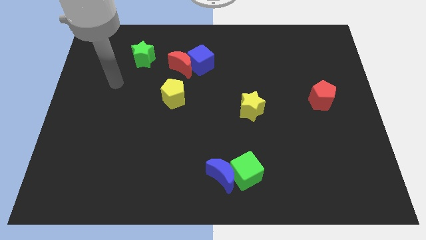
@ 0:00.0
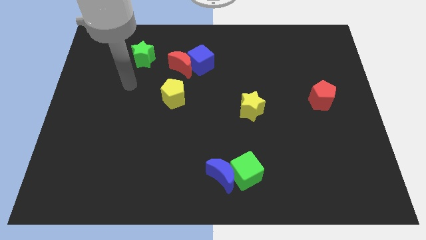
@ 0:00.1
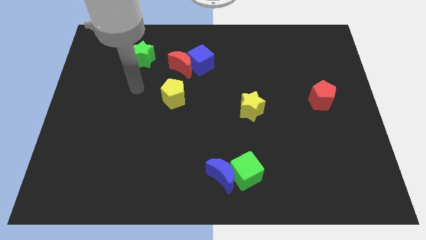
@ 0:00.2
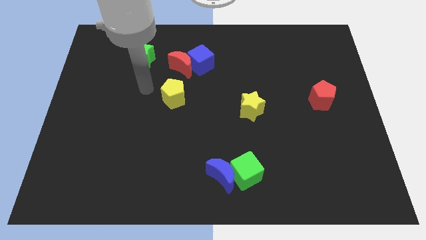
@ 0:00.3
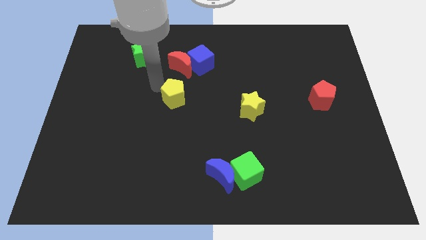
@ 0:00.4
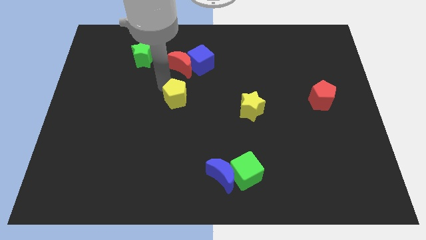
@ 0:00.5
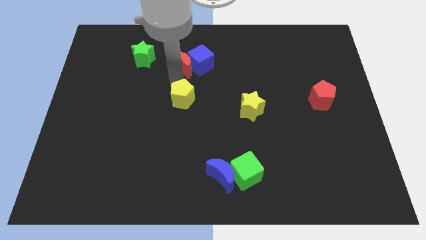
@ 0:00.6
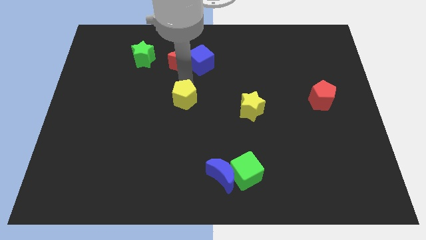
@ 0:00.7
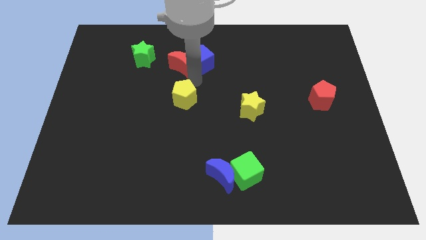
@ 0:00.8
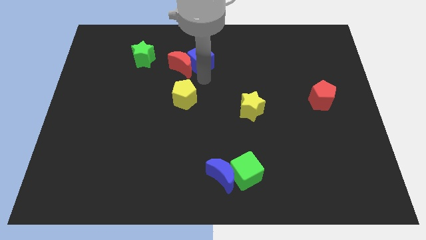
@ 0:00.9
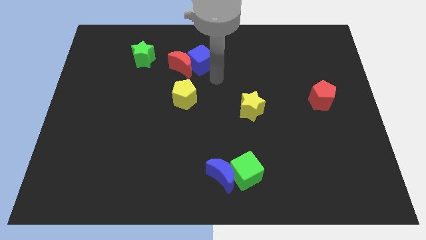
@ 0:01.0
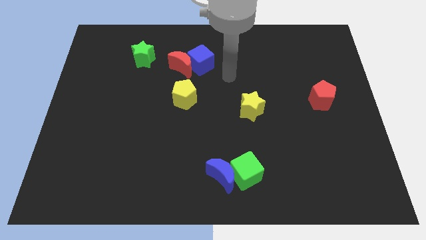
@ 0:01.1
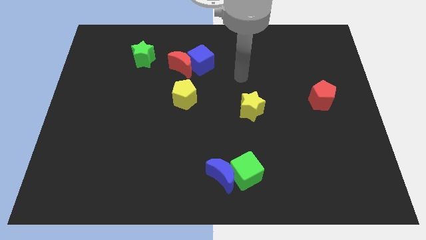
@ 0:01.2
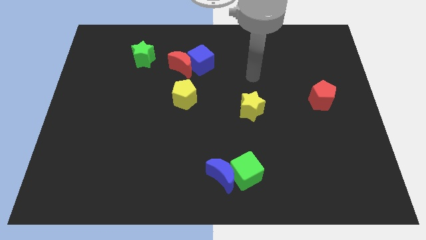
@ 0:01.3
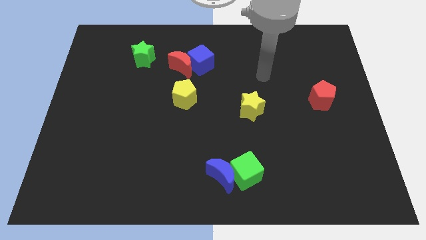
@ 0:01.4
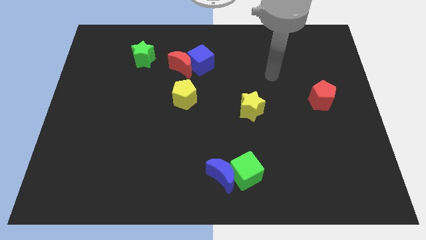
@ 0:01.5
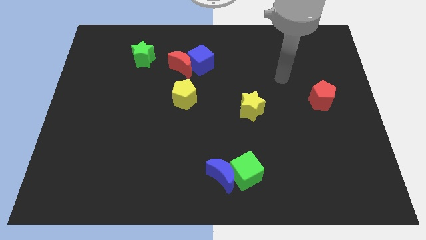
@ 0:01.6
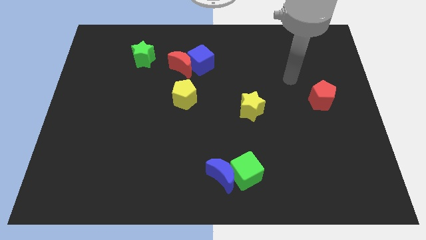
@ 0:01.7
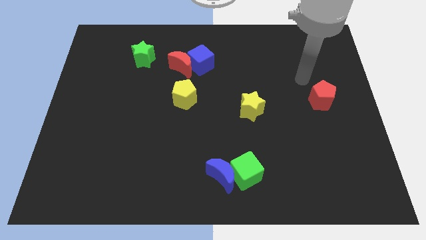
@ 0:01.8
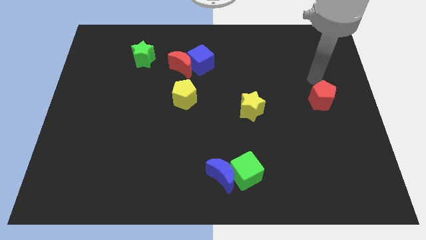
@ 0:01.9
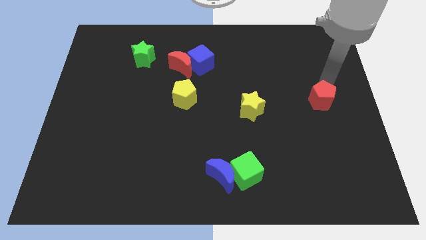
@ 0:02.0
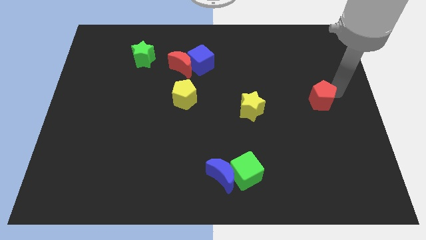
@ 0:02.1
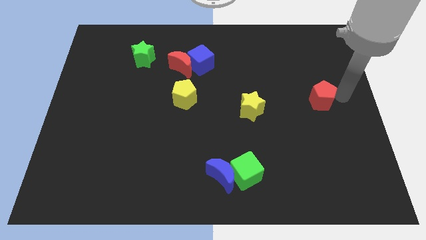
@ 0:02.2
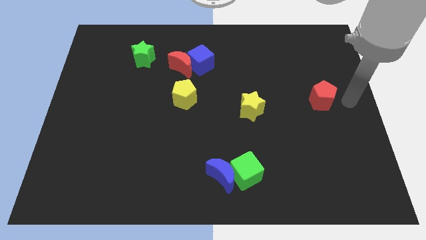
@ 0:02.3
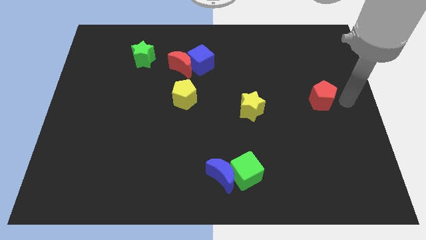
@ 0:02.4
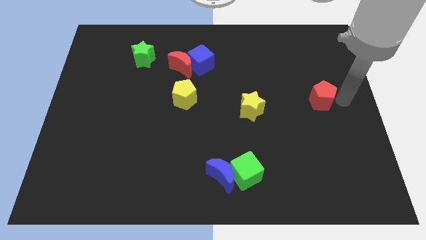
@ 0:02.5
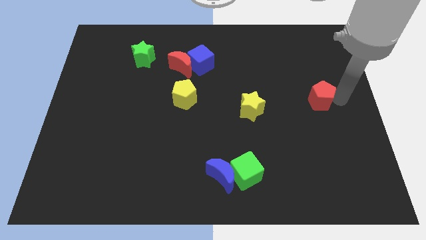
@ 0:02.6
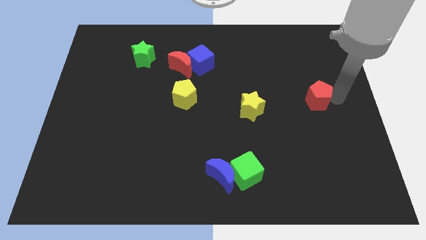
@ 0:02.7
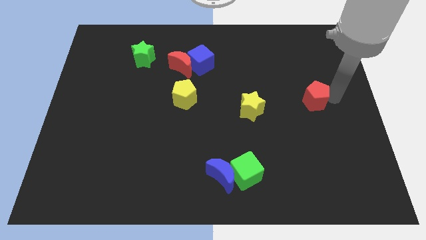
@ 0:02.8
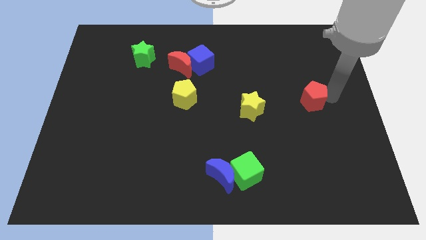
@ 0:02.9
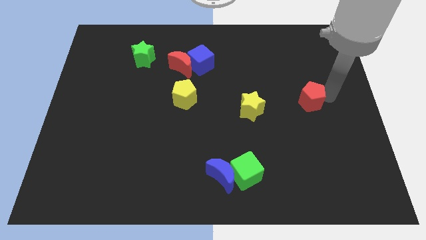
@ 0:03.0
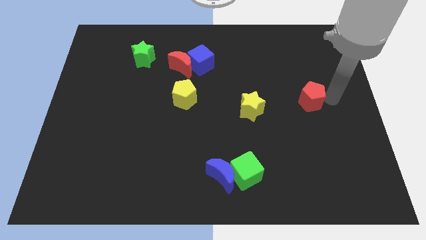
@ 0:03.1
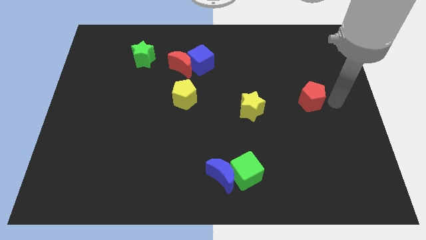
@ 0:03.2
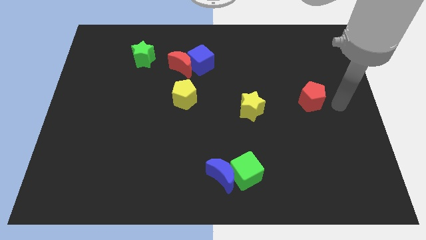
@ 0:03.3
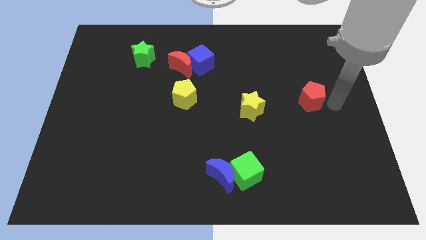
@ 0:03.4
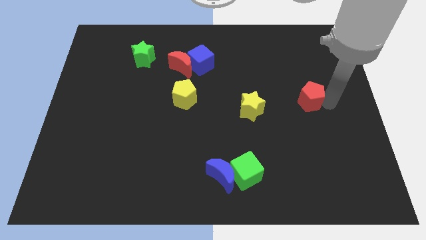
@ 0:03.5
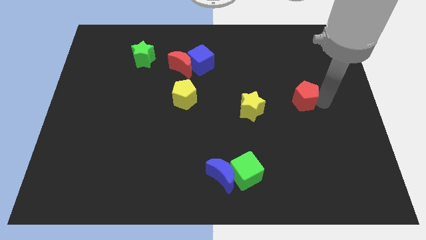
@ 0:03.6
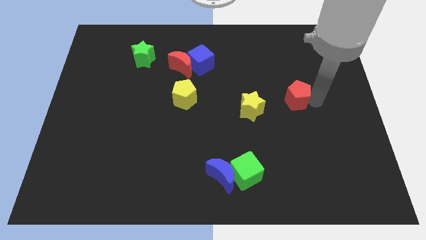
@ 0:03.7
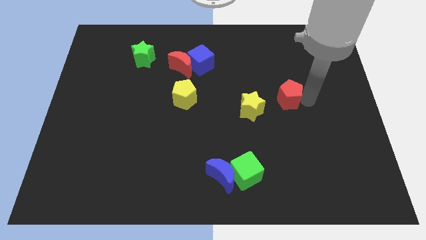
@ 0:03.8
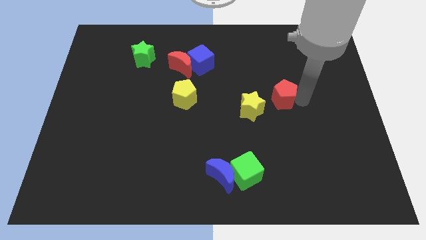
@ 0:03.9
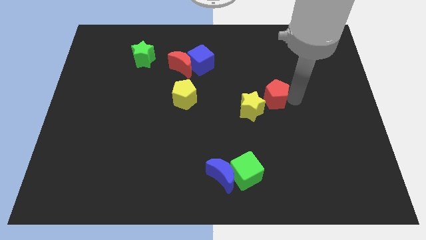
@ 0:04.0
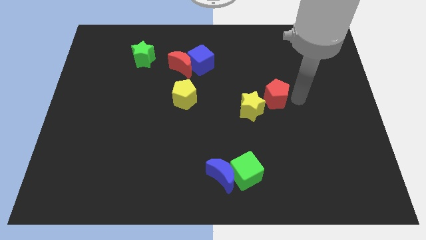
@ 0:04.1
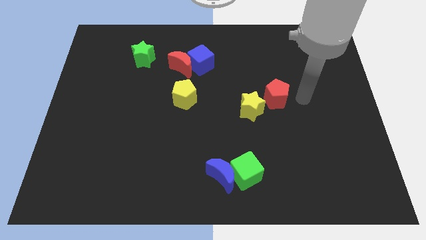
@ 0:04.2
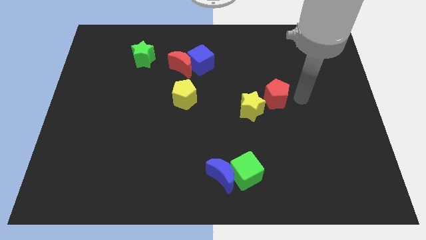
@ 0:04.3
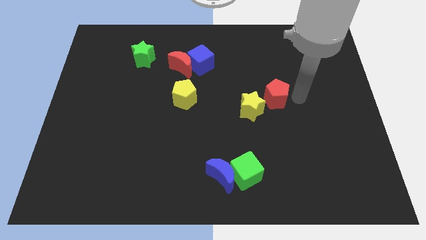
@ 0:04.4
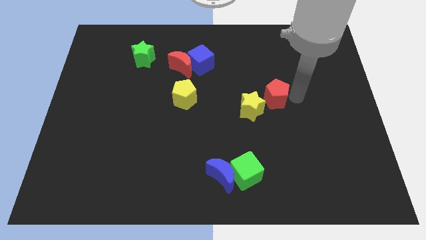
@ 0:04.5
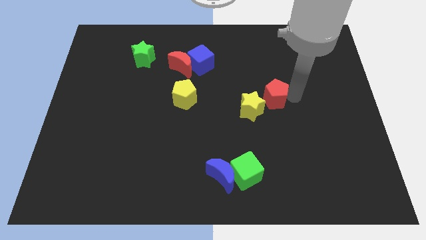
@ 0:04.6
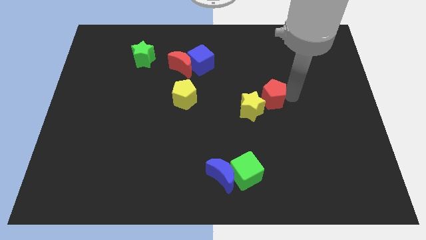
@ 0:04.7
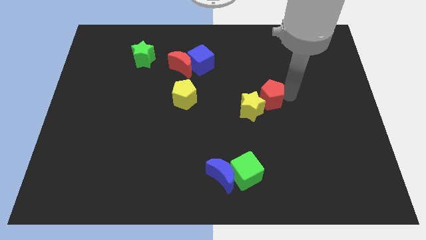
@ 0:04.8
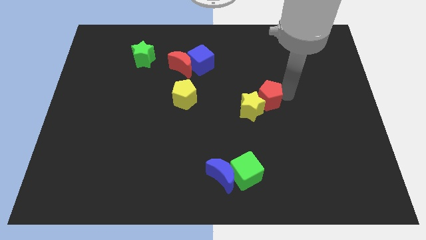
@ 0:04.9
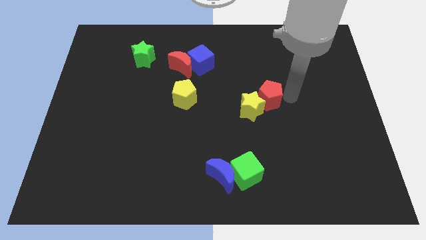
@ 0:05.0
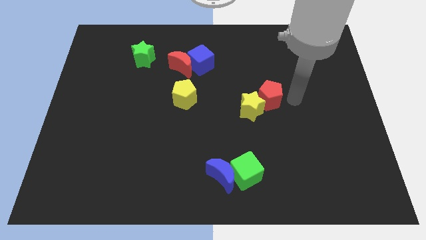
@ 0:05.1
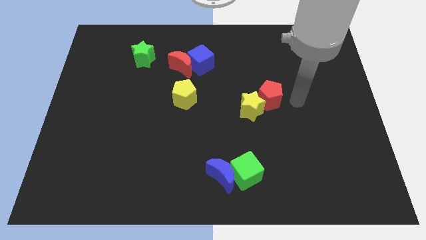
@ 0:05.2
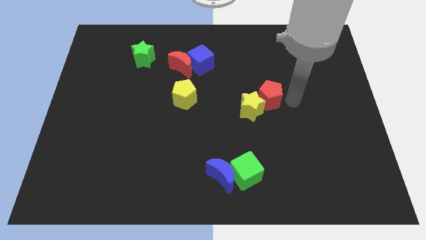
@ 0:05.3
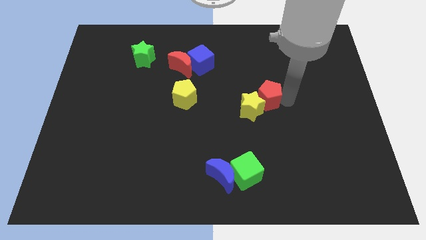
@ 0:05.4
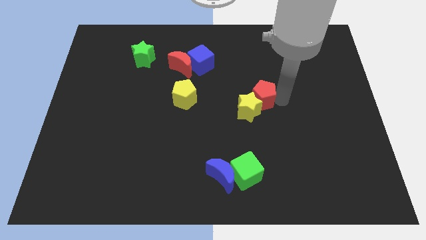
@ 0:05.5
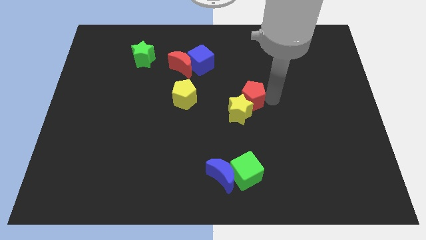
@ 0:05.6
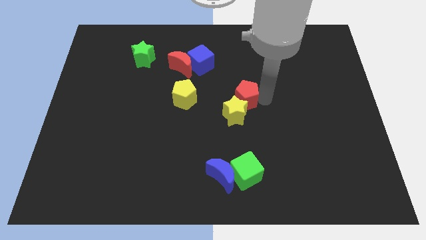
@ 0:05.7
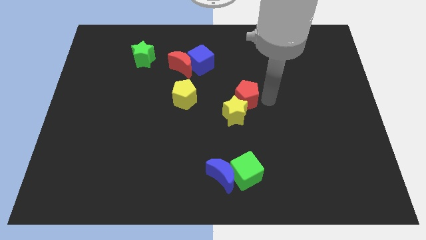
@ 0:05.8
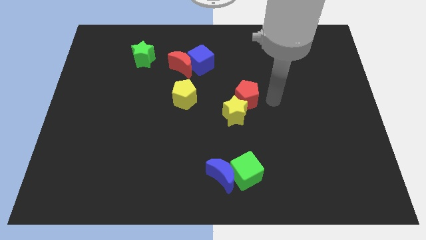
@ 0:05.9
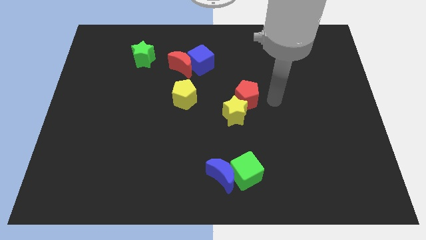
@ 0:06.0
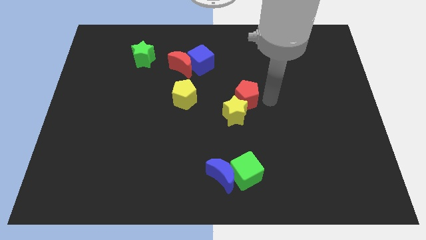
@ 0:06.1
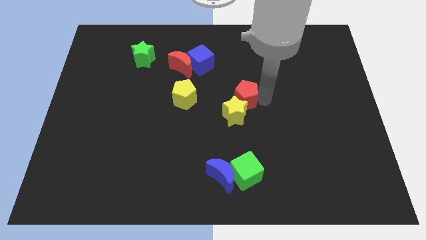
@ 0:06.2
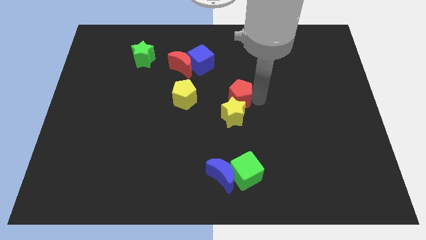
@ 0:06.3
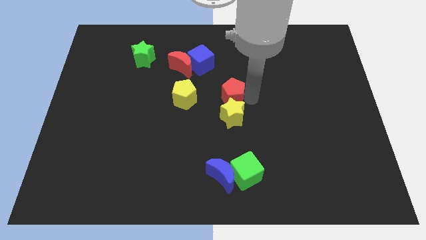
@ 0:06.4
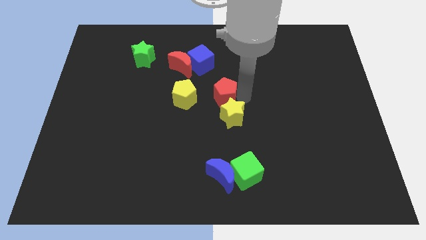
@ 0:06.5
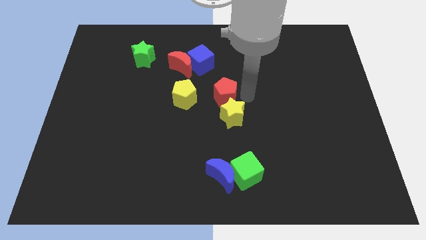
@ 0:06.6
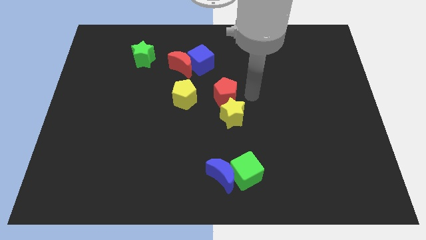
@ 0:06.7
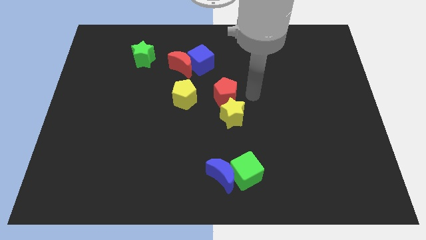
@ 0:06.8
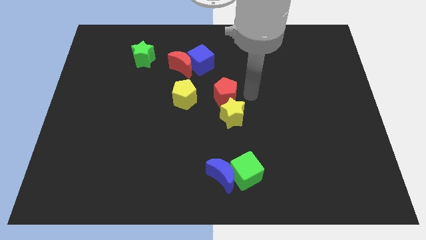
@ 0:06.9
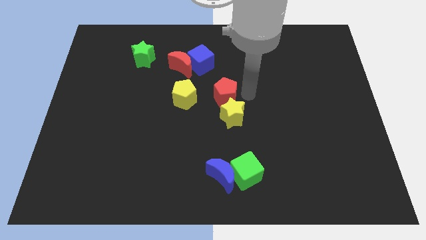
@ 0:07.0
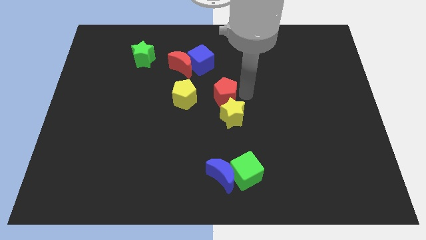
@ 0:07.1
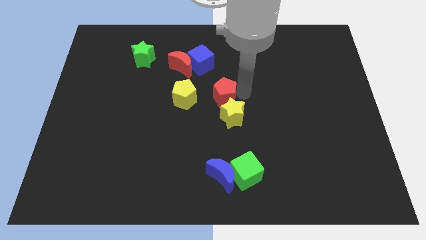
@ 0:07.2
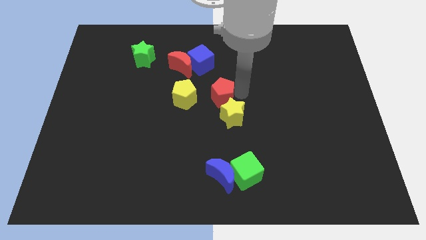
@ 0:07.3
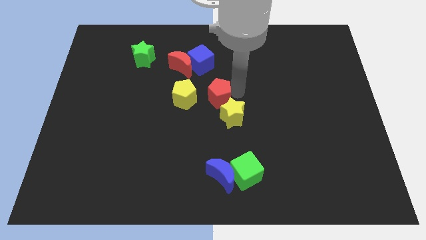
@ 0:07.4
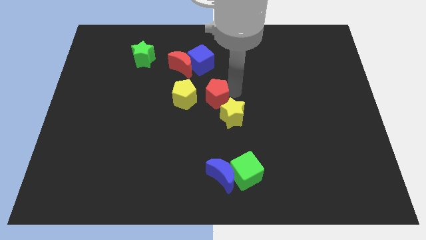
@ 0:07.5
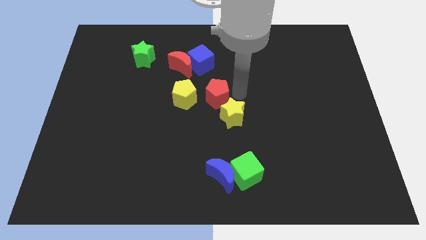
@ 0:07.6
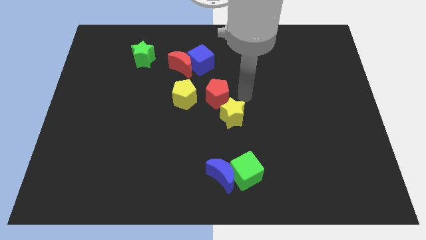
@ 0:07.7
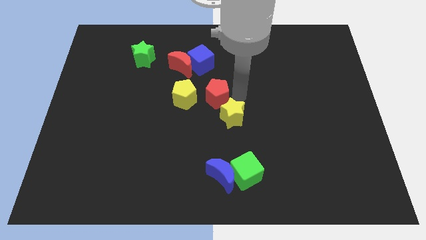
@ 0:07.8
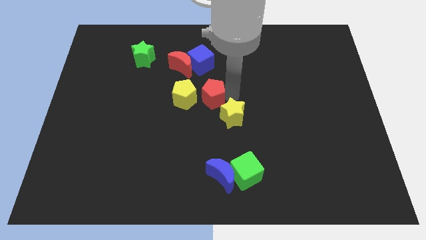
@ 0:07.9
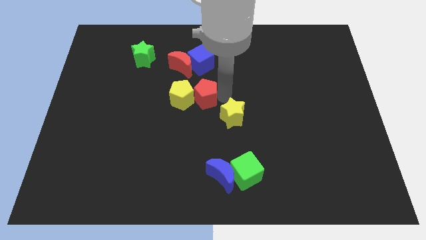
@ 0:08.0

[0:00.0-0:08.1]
move the red pentagon next to the yellow pentagon
